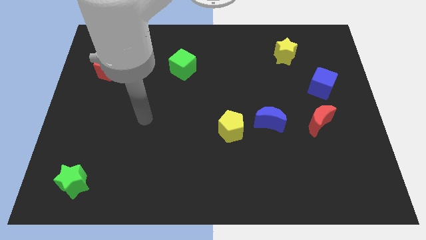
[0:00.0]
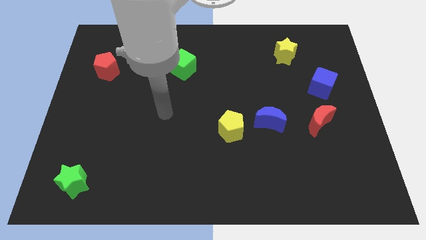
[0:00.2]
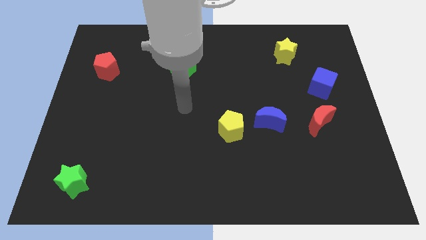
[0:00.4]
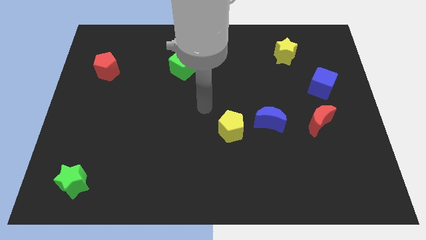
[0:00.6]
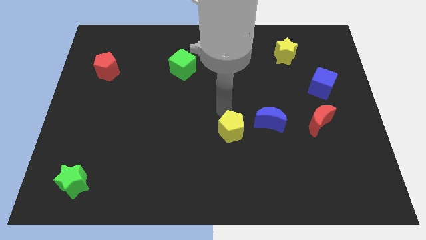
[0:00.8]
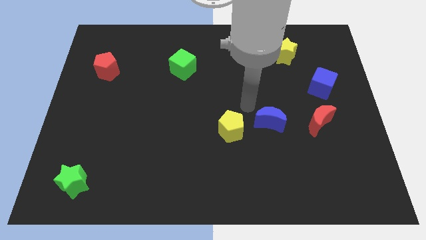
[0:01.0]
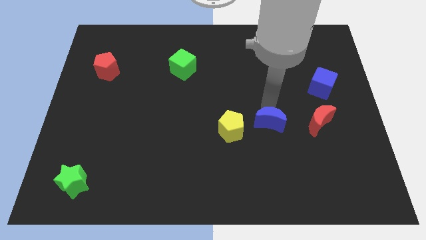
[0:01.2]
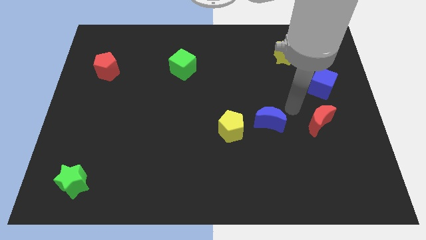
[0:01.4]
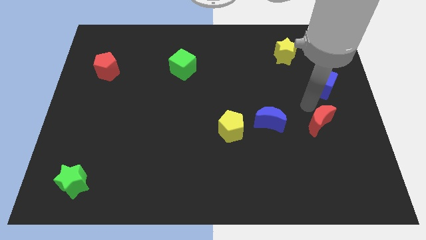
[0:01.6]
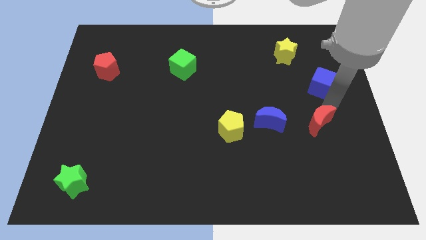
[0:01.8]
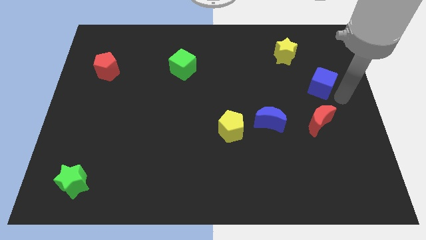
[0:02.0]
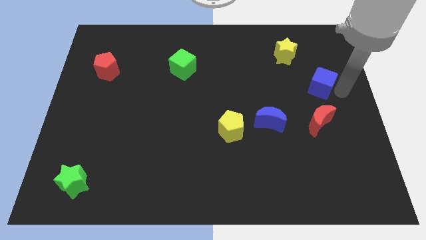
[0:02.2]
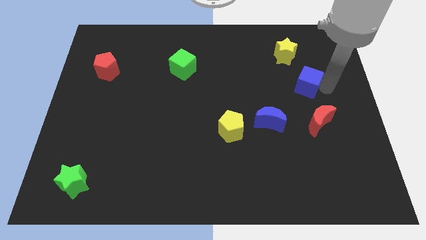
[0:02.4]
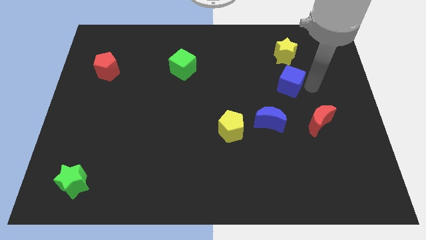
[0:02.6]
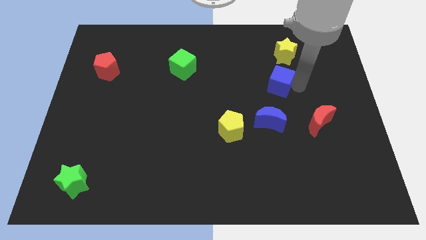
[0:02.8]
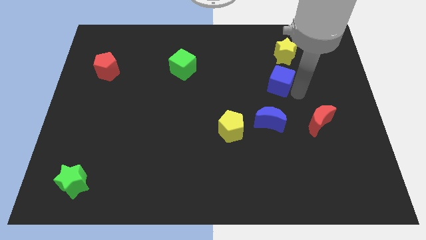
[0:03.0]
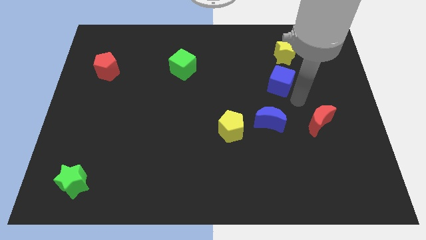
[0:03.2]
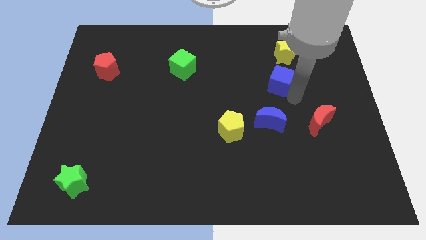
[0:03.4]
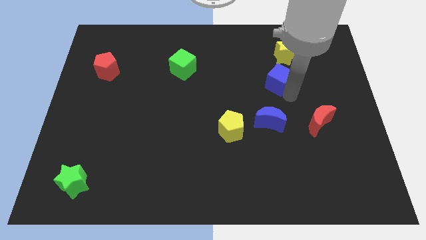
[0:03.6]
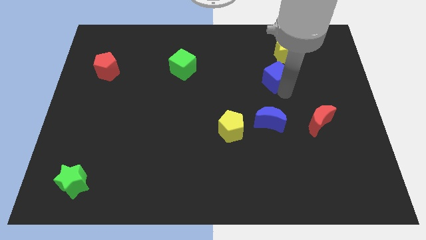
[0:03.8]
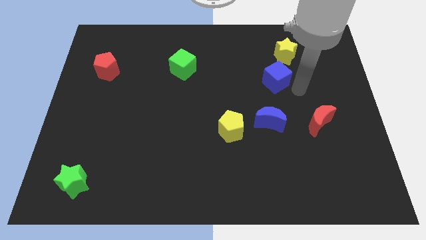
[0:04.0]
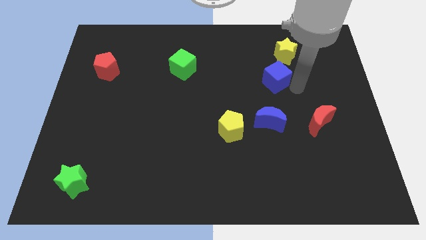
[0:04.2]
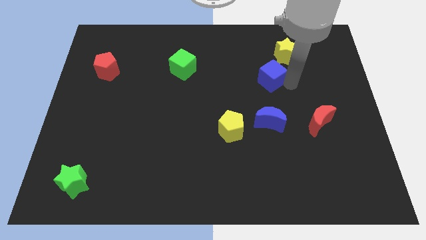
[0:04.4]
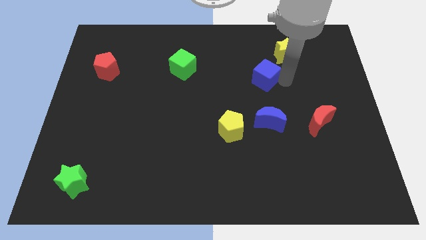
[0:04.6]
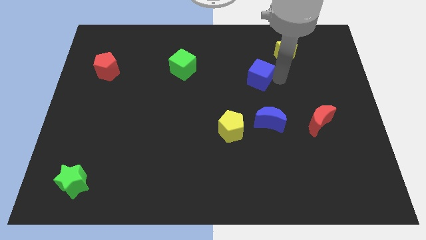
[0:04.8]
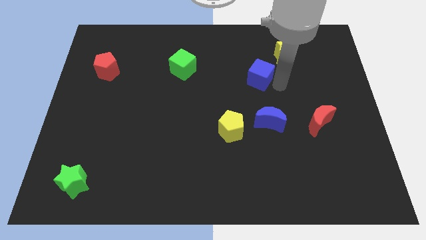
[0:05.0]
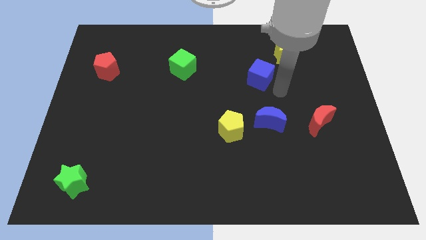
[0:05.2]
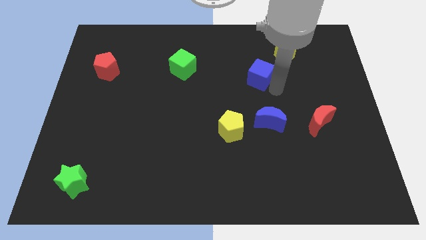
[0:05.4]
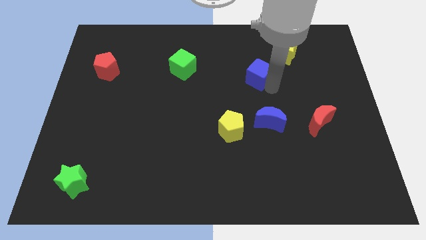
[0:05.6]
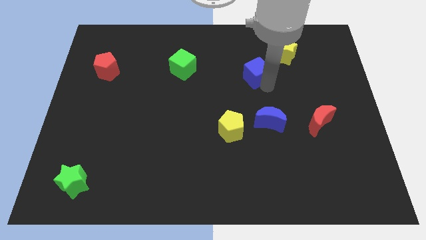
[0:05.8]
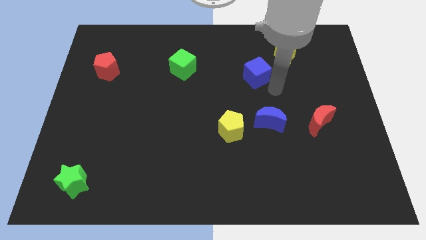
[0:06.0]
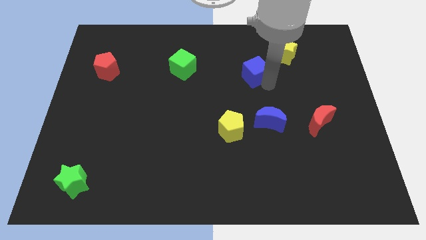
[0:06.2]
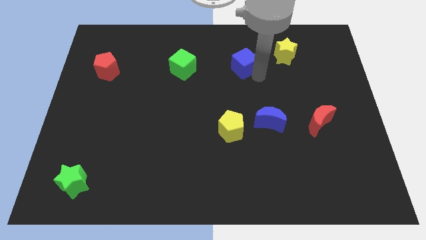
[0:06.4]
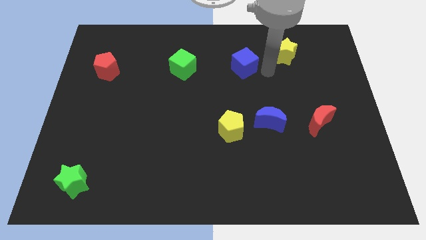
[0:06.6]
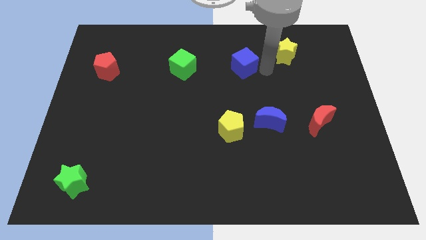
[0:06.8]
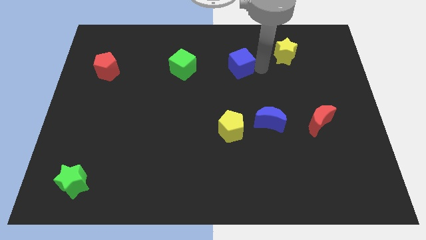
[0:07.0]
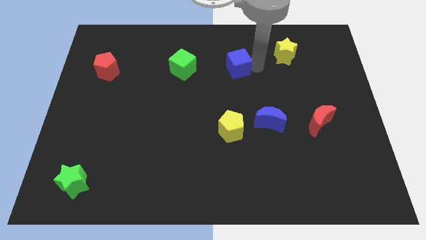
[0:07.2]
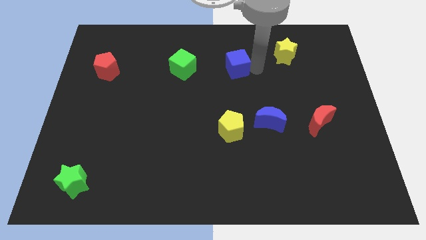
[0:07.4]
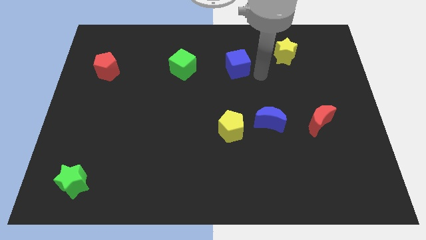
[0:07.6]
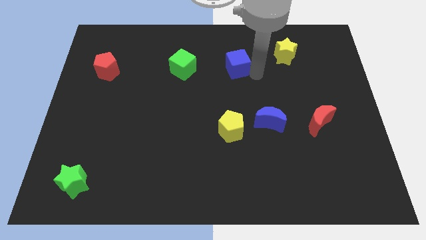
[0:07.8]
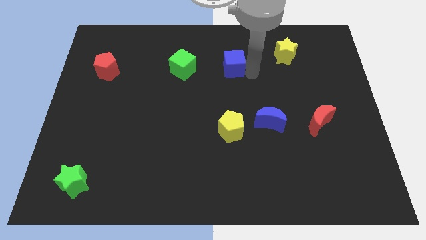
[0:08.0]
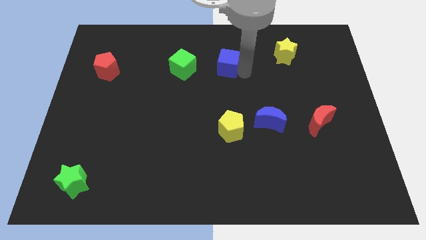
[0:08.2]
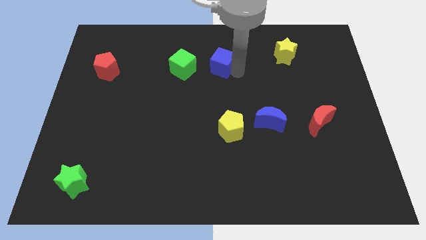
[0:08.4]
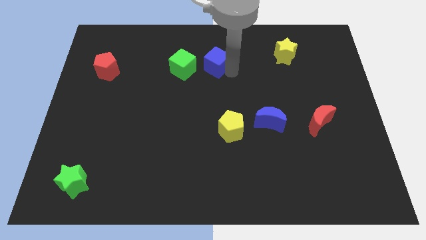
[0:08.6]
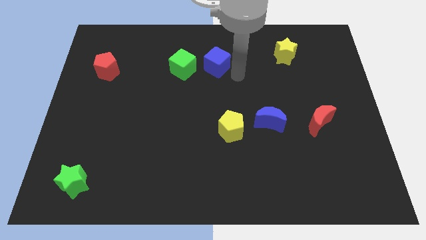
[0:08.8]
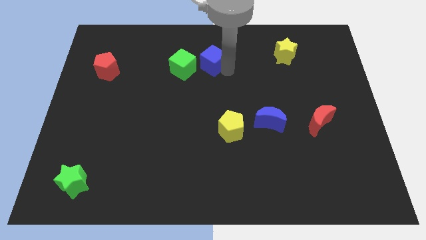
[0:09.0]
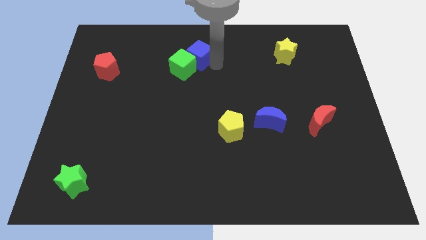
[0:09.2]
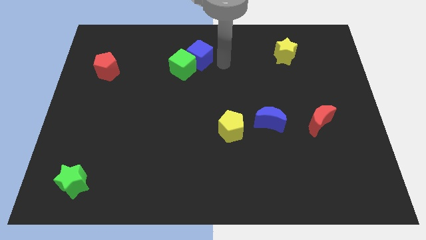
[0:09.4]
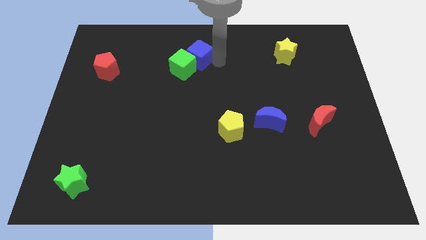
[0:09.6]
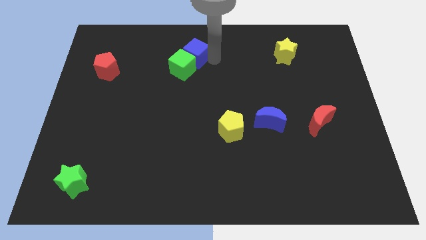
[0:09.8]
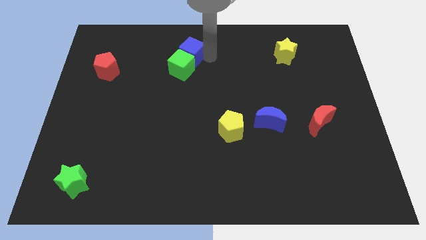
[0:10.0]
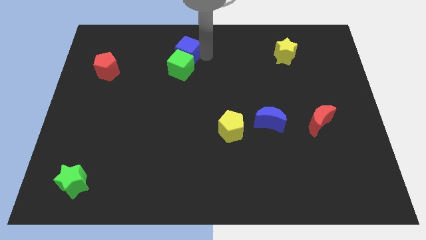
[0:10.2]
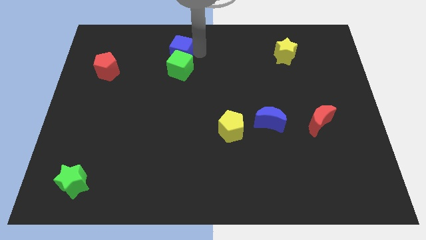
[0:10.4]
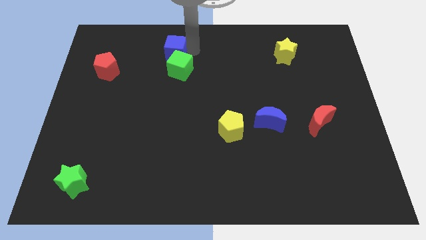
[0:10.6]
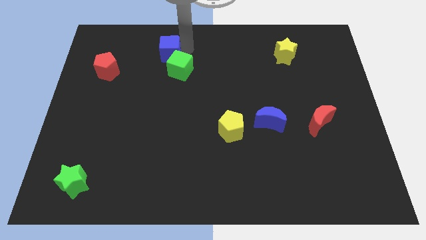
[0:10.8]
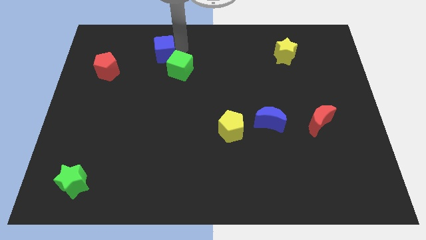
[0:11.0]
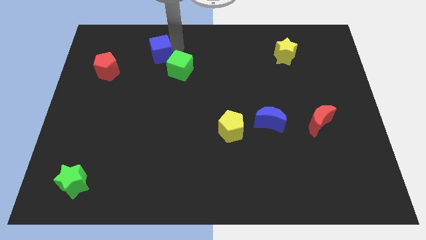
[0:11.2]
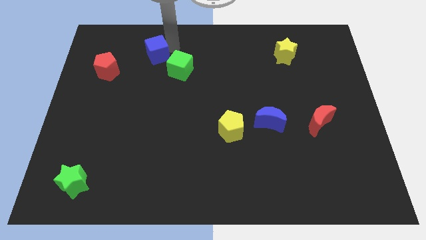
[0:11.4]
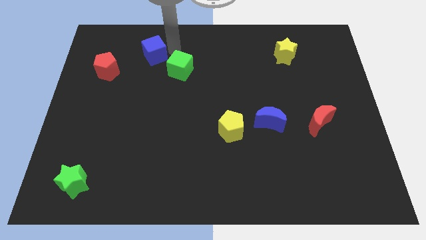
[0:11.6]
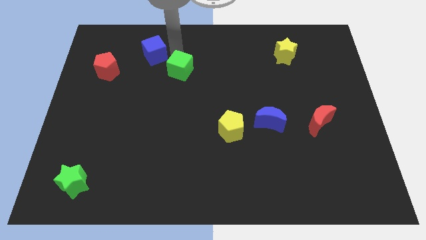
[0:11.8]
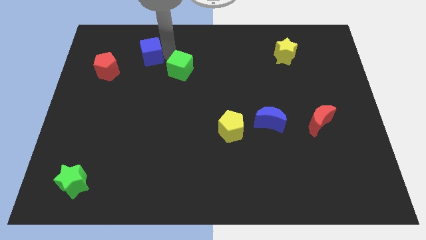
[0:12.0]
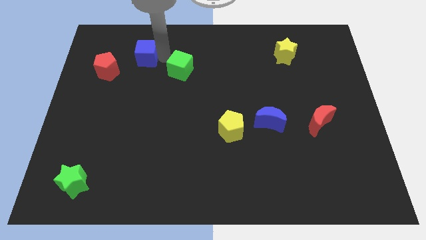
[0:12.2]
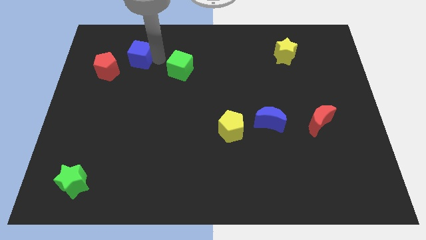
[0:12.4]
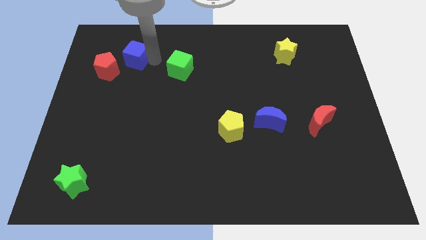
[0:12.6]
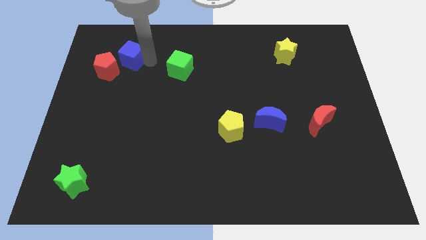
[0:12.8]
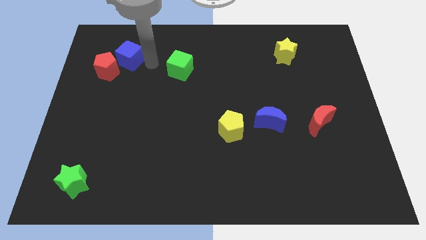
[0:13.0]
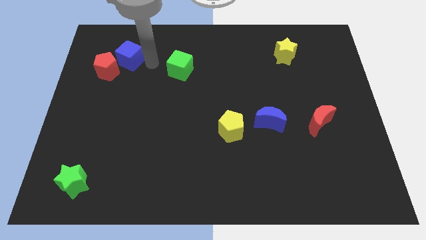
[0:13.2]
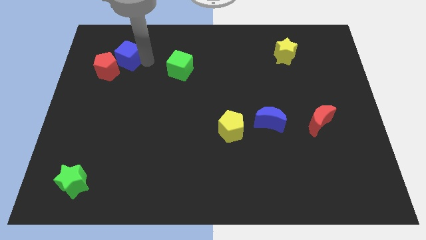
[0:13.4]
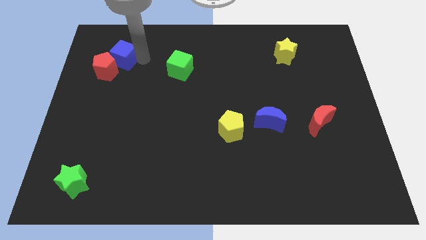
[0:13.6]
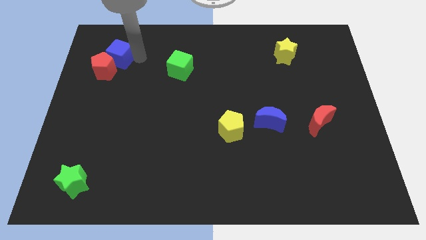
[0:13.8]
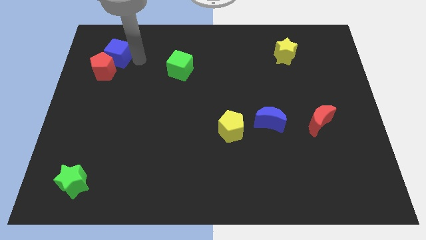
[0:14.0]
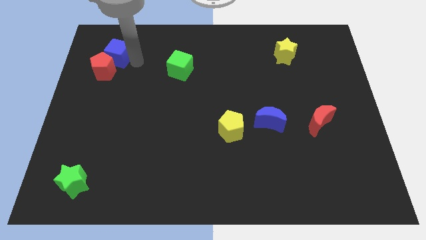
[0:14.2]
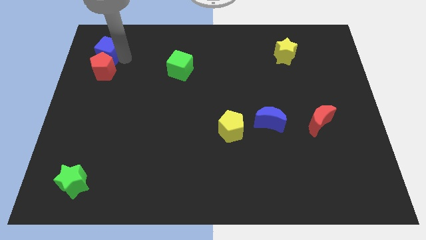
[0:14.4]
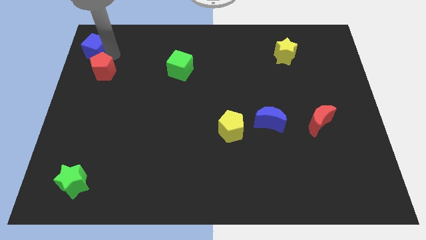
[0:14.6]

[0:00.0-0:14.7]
slide the blue cube to the top left

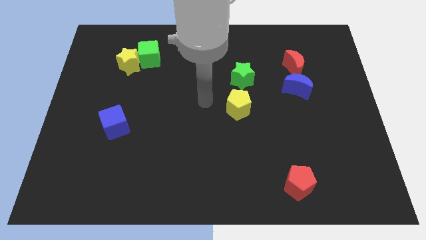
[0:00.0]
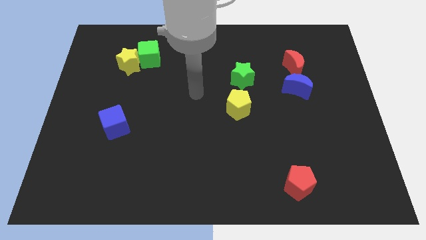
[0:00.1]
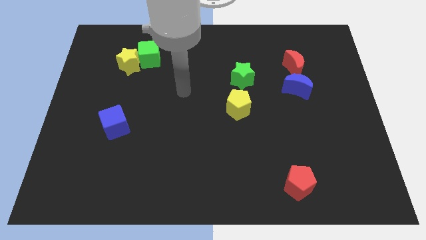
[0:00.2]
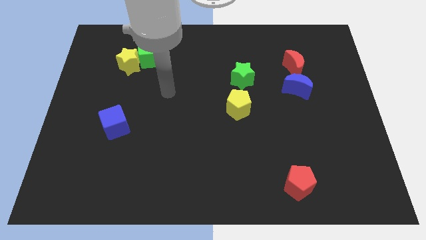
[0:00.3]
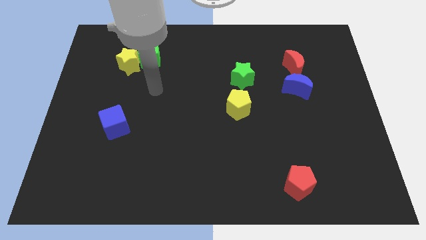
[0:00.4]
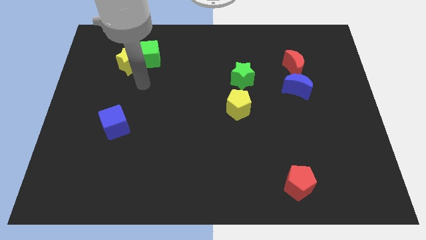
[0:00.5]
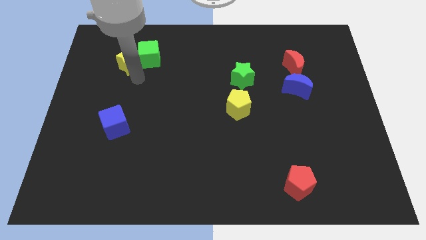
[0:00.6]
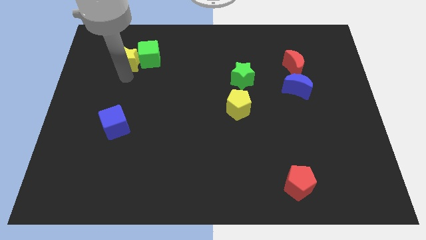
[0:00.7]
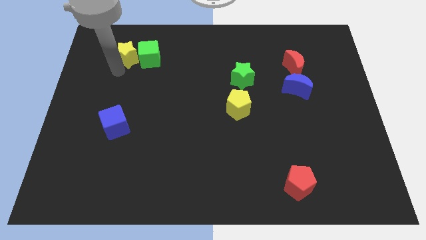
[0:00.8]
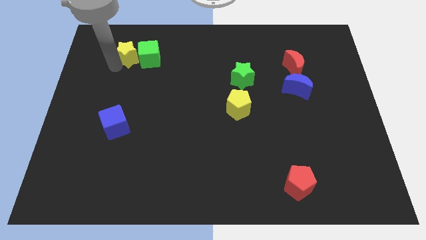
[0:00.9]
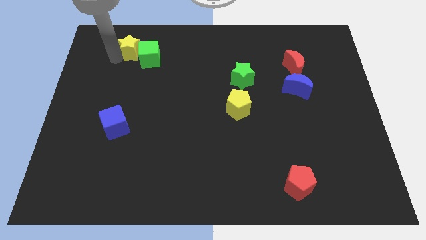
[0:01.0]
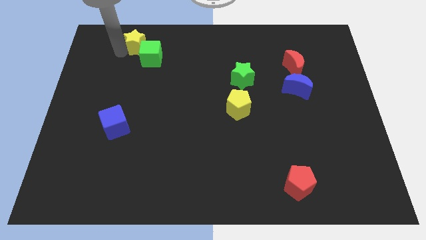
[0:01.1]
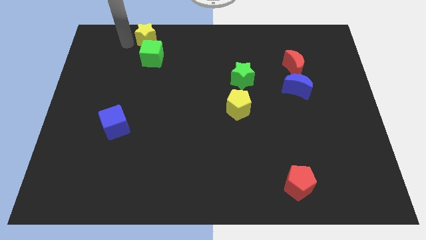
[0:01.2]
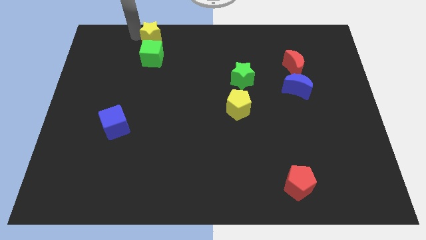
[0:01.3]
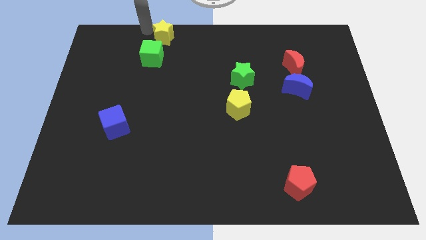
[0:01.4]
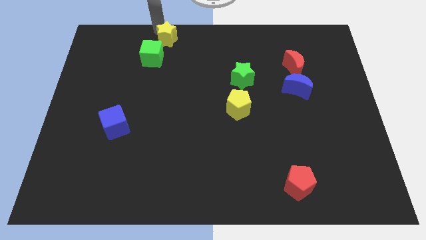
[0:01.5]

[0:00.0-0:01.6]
move the yellow star to the towards your base
